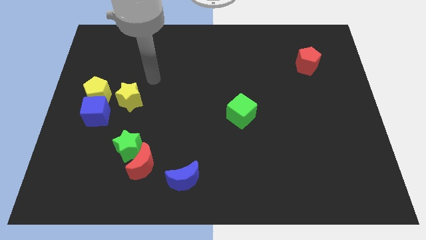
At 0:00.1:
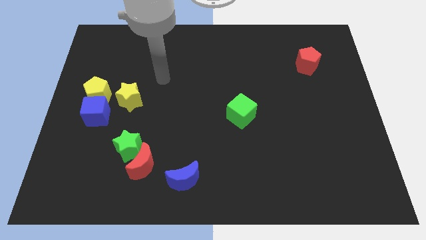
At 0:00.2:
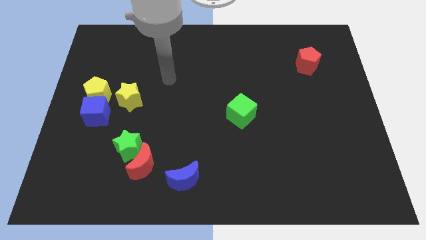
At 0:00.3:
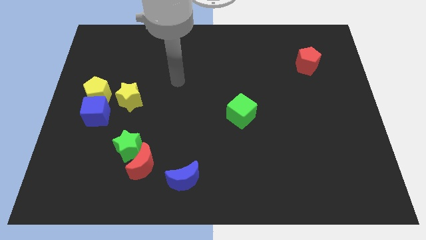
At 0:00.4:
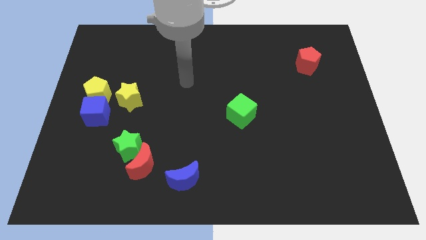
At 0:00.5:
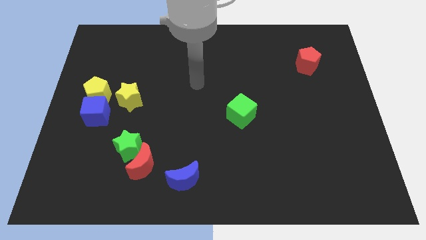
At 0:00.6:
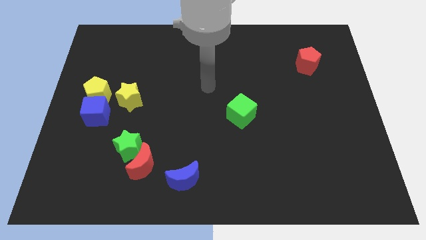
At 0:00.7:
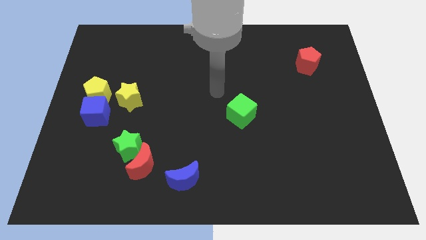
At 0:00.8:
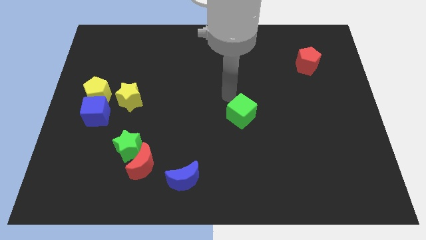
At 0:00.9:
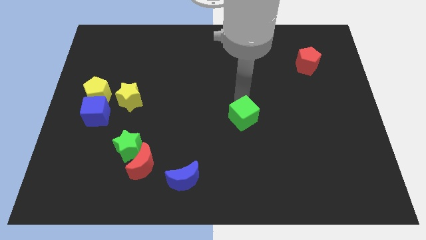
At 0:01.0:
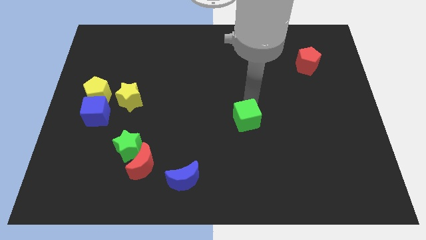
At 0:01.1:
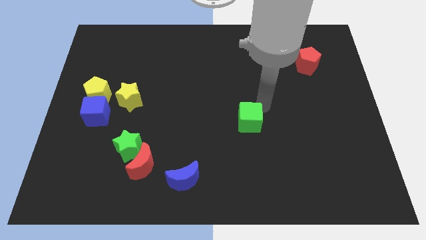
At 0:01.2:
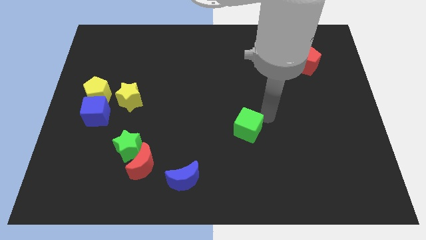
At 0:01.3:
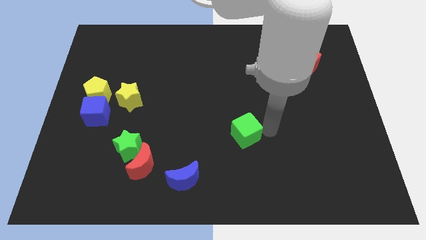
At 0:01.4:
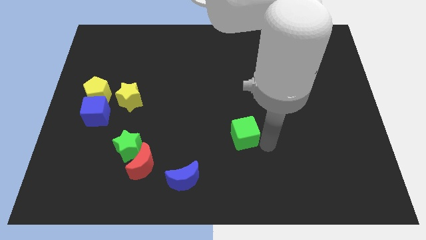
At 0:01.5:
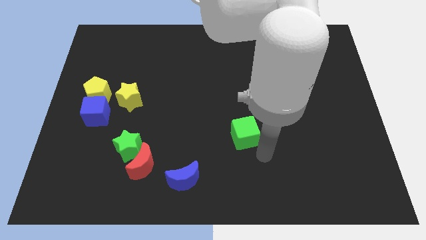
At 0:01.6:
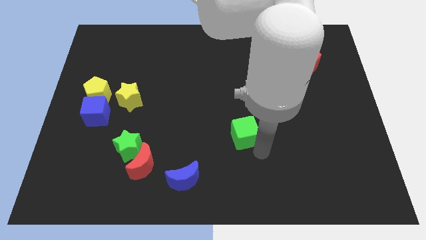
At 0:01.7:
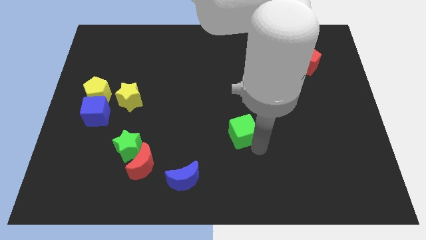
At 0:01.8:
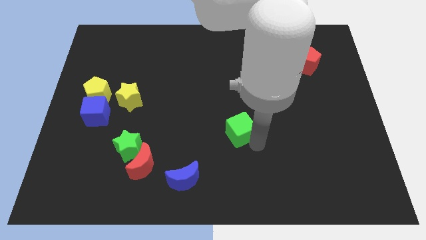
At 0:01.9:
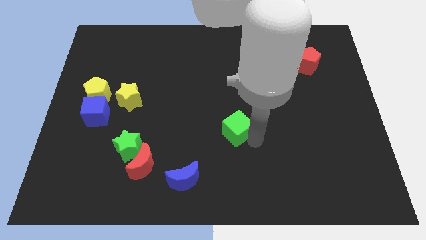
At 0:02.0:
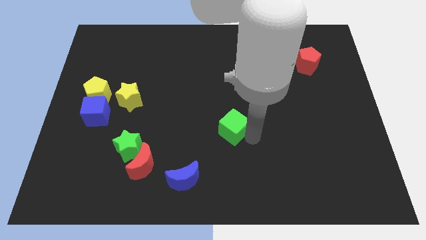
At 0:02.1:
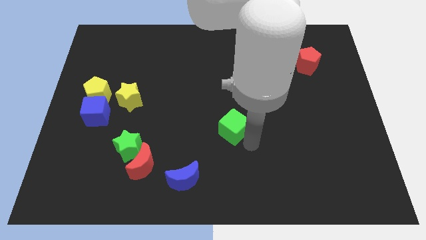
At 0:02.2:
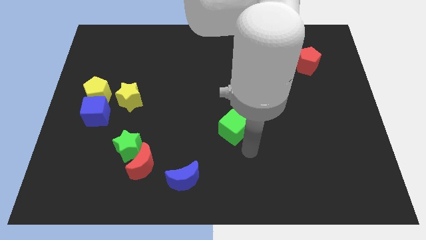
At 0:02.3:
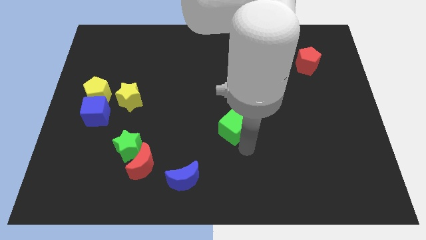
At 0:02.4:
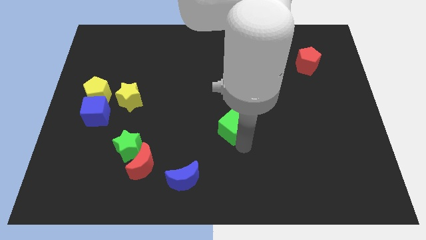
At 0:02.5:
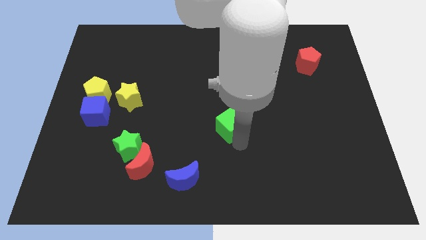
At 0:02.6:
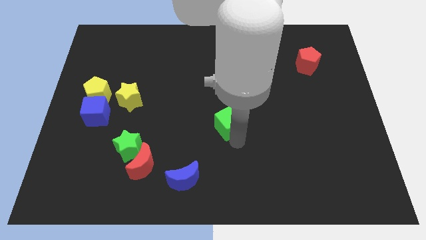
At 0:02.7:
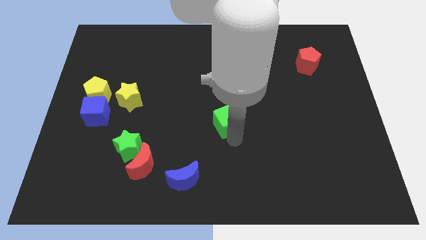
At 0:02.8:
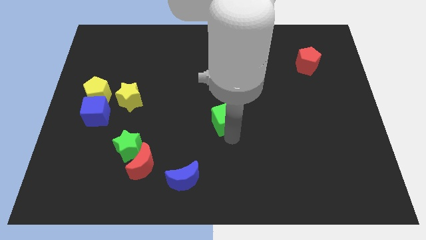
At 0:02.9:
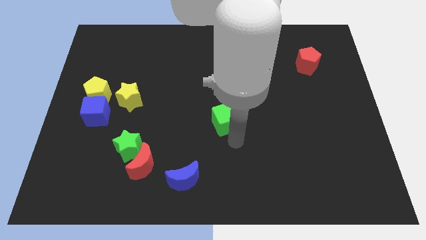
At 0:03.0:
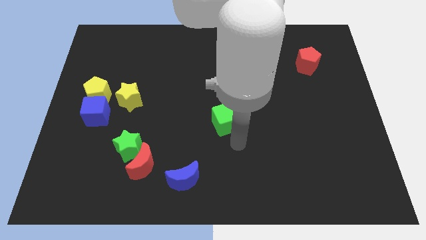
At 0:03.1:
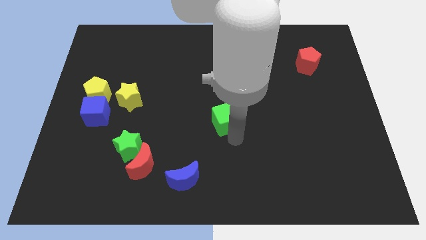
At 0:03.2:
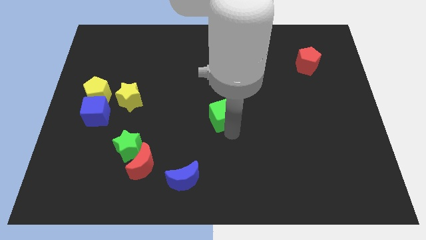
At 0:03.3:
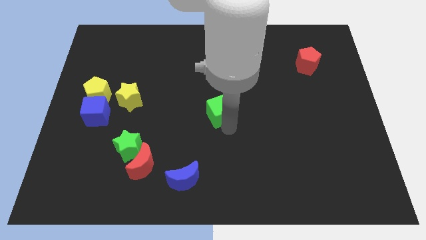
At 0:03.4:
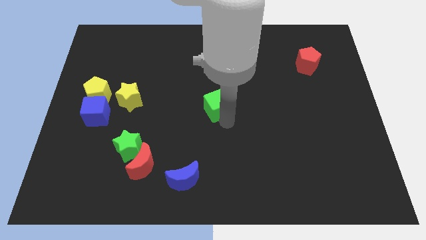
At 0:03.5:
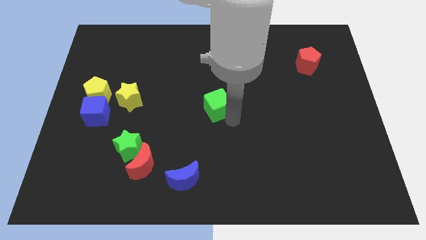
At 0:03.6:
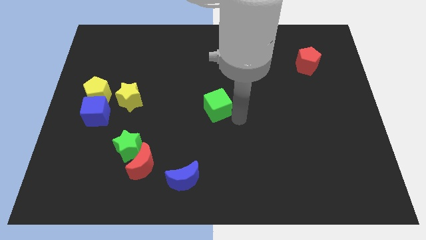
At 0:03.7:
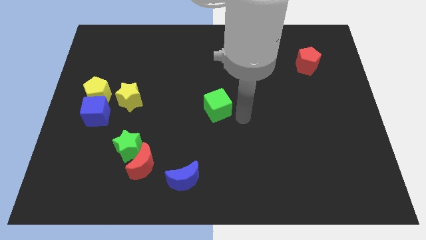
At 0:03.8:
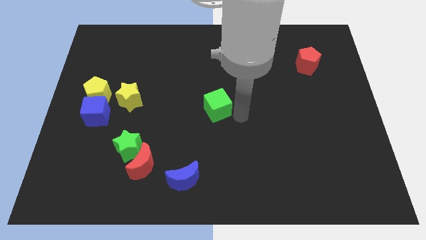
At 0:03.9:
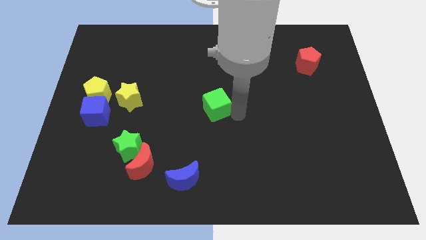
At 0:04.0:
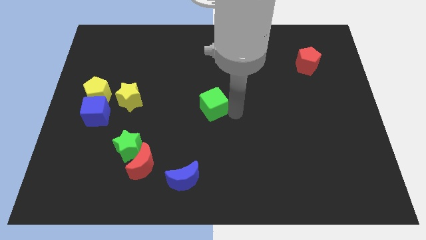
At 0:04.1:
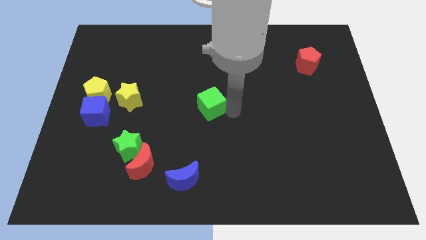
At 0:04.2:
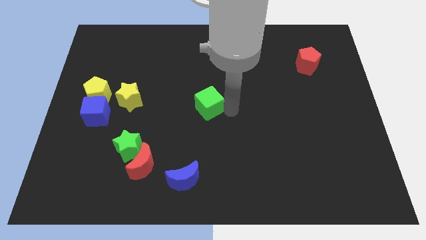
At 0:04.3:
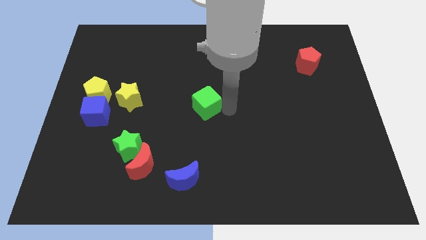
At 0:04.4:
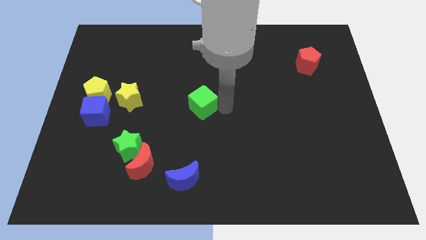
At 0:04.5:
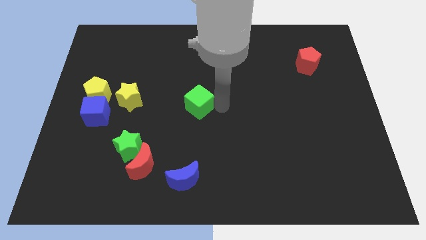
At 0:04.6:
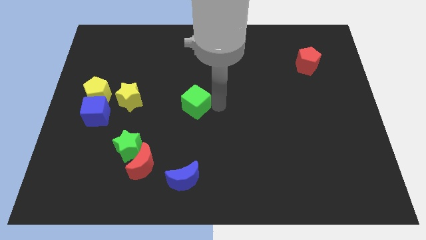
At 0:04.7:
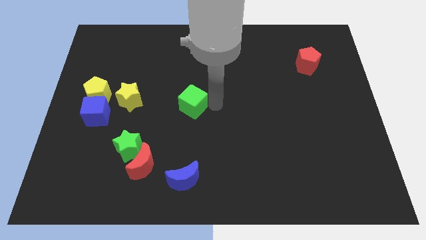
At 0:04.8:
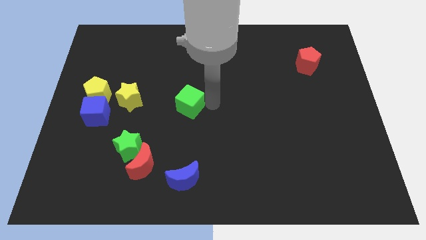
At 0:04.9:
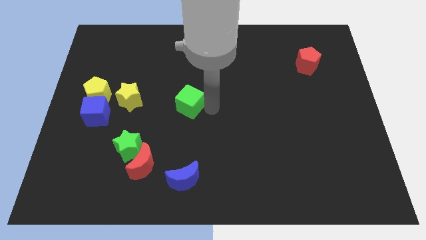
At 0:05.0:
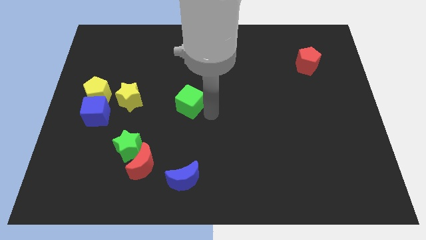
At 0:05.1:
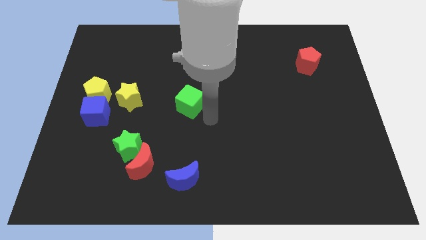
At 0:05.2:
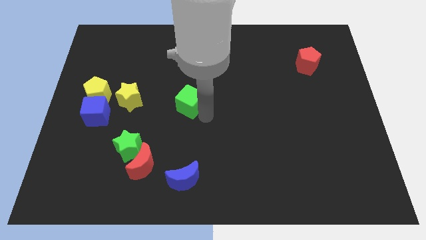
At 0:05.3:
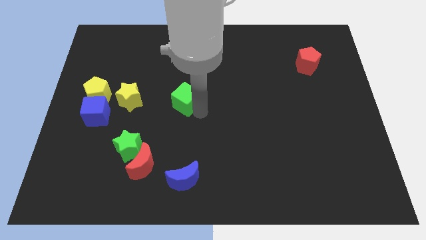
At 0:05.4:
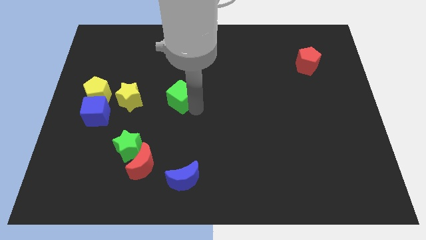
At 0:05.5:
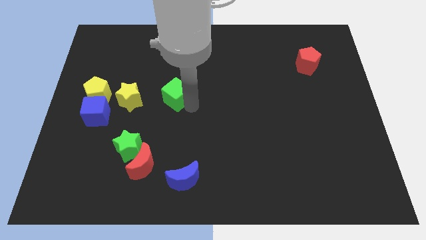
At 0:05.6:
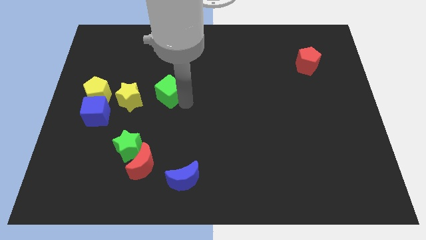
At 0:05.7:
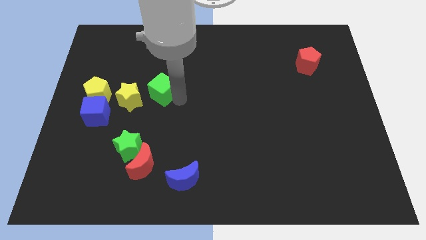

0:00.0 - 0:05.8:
push the green cube to the top right of the yellow star

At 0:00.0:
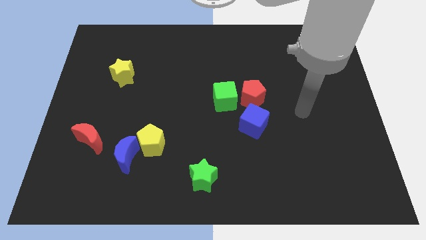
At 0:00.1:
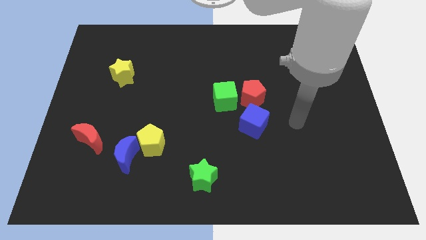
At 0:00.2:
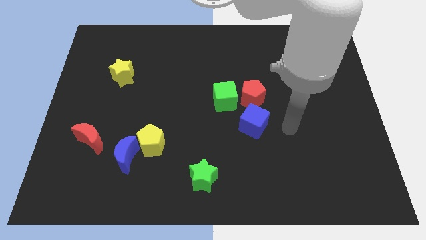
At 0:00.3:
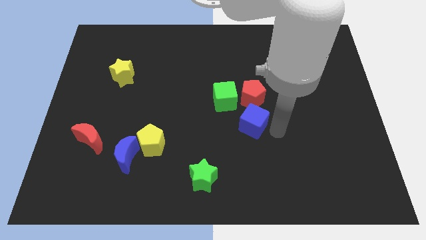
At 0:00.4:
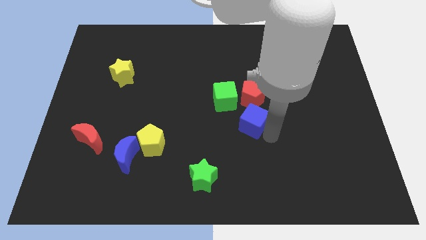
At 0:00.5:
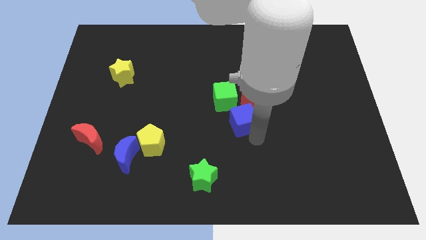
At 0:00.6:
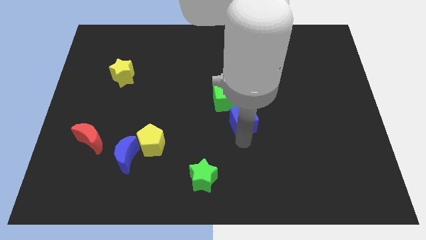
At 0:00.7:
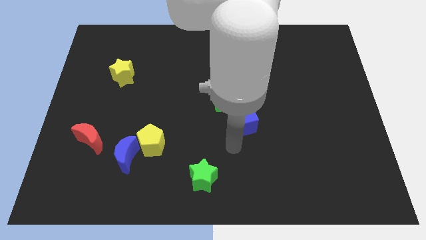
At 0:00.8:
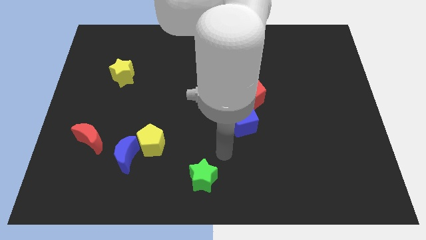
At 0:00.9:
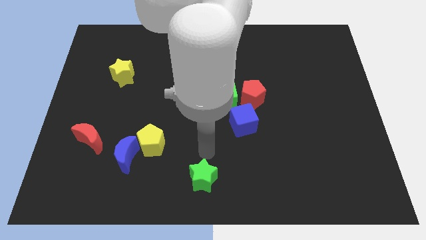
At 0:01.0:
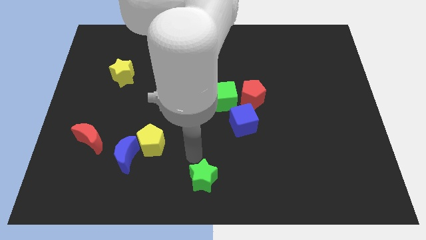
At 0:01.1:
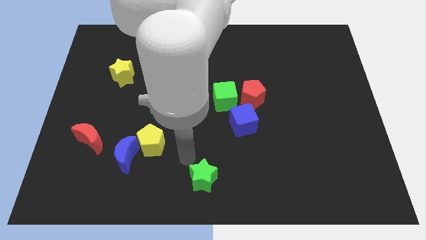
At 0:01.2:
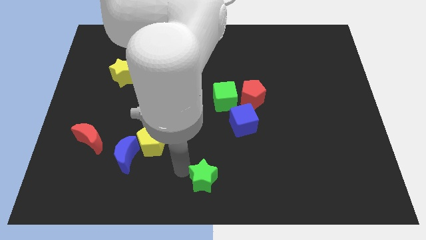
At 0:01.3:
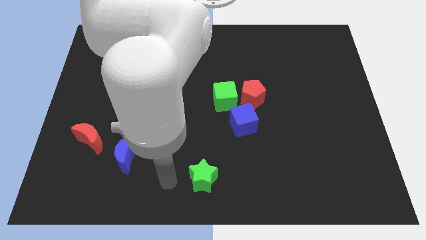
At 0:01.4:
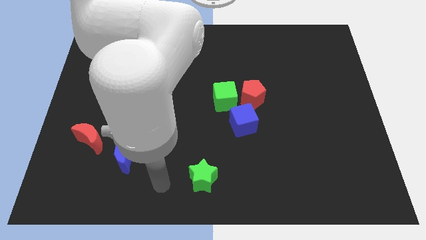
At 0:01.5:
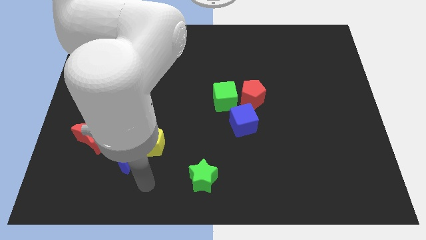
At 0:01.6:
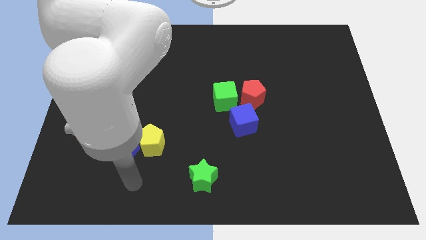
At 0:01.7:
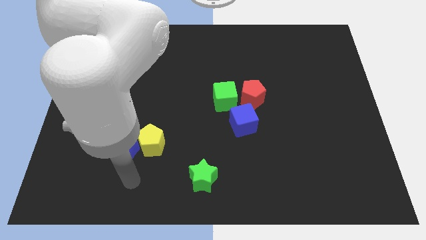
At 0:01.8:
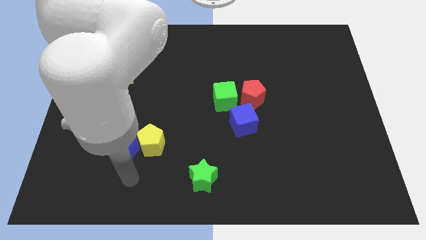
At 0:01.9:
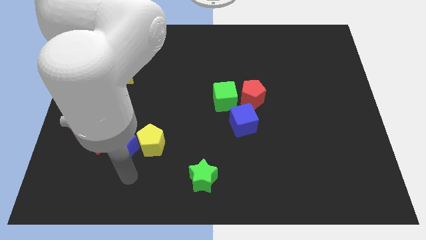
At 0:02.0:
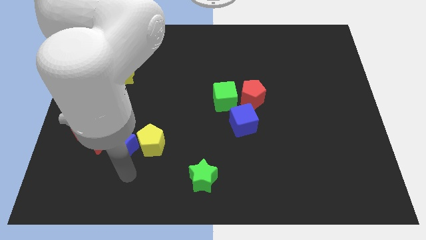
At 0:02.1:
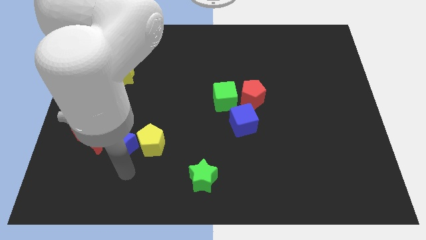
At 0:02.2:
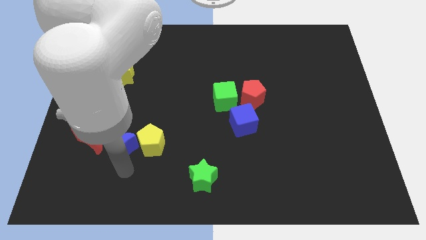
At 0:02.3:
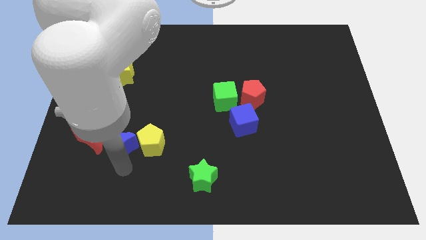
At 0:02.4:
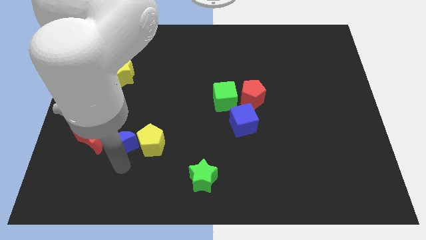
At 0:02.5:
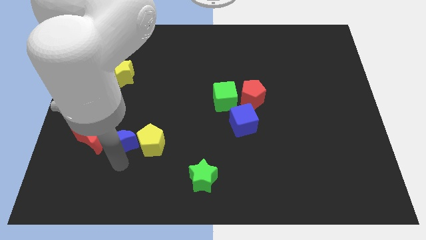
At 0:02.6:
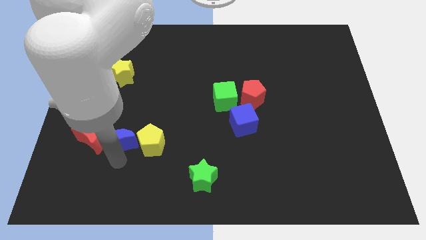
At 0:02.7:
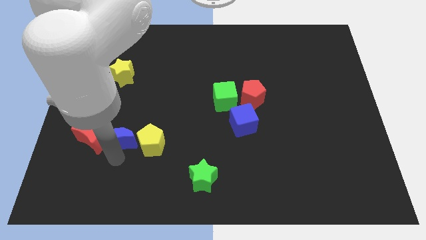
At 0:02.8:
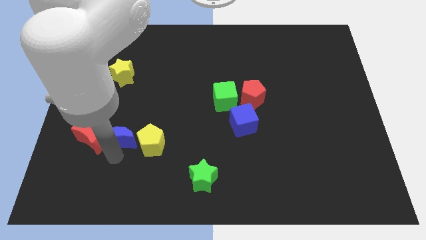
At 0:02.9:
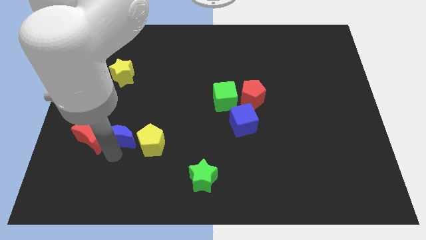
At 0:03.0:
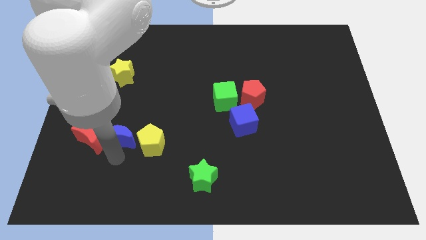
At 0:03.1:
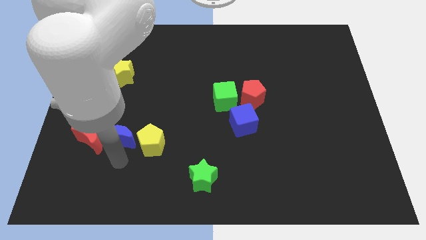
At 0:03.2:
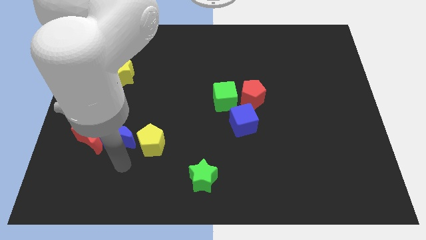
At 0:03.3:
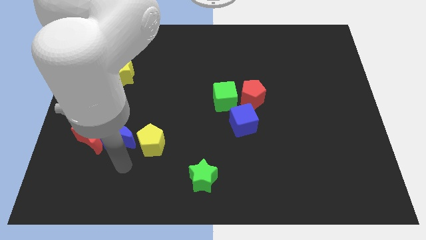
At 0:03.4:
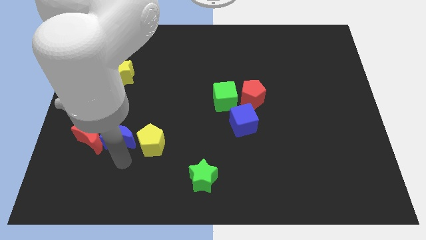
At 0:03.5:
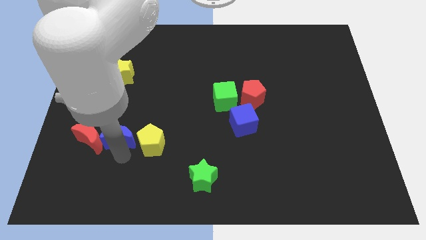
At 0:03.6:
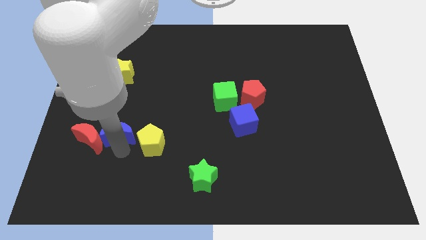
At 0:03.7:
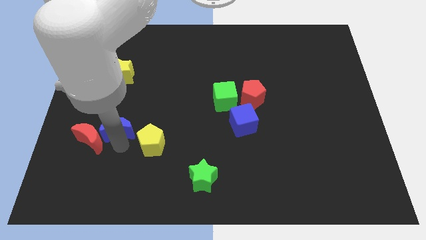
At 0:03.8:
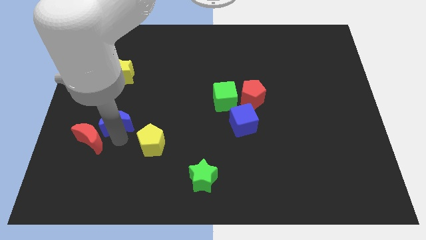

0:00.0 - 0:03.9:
push the blue moon to the bottom side of the yellow star
